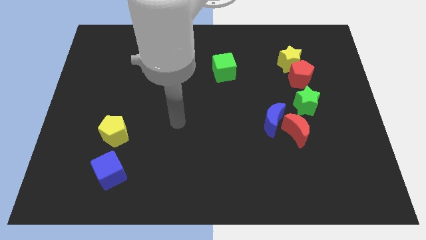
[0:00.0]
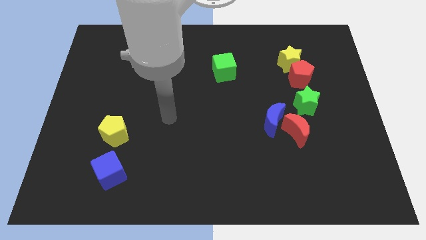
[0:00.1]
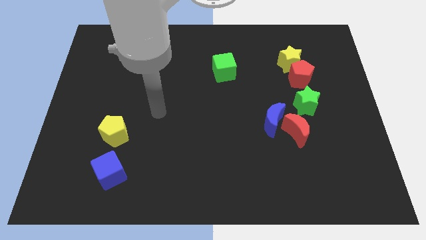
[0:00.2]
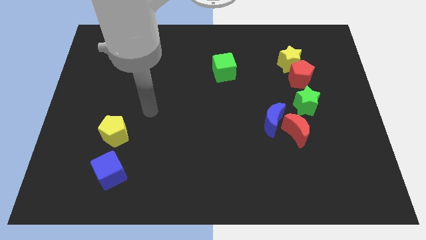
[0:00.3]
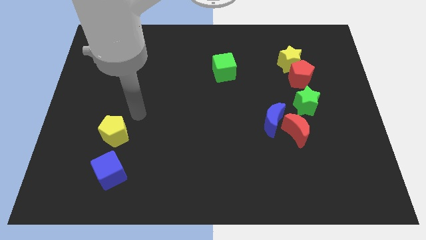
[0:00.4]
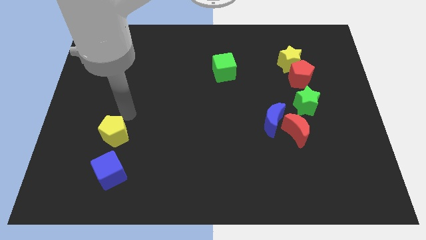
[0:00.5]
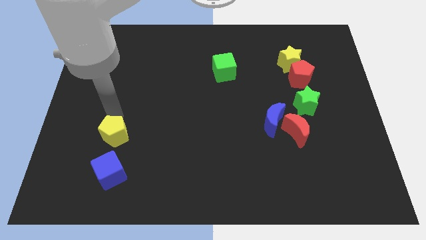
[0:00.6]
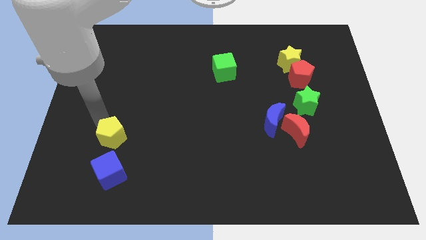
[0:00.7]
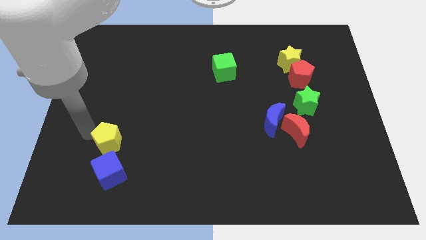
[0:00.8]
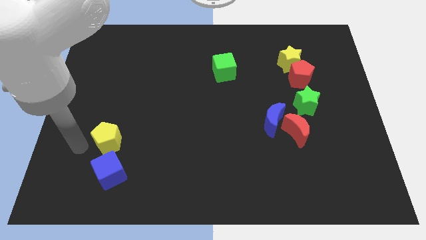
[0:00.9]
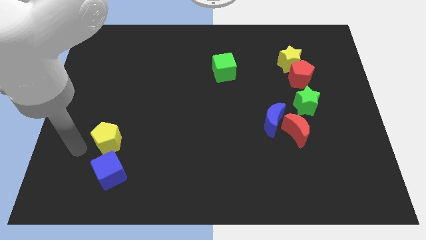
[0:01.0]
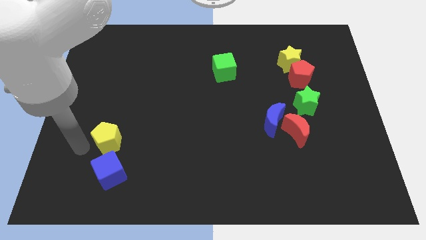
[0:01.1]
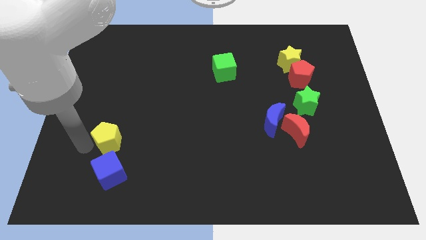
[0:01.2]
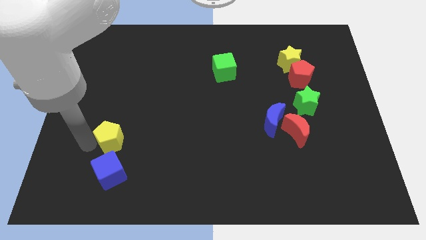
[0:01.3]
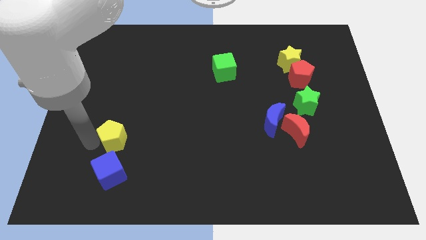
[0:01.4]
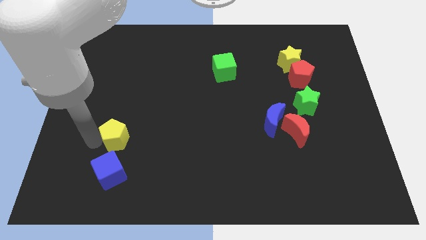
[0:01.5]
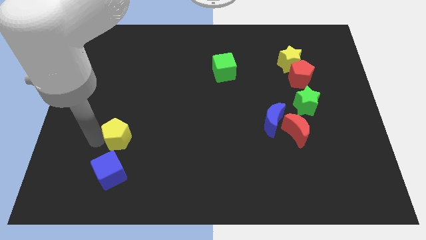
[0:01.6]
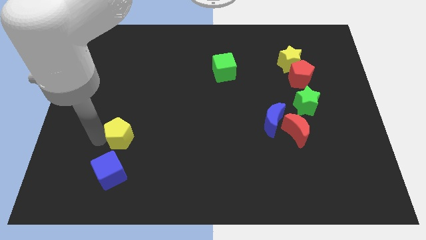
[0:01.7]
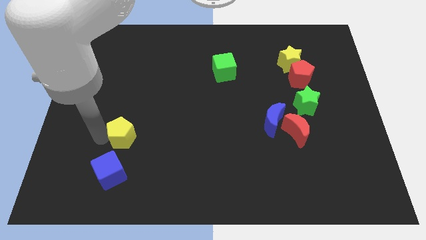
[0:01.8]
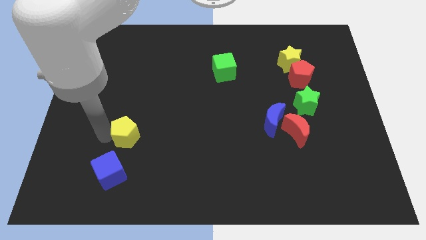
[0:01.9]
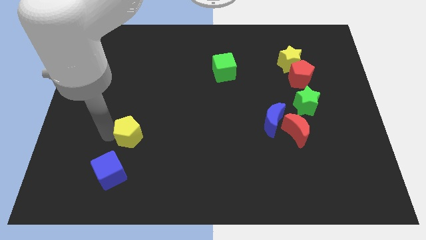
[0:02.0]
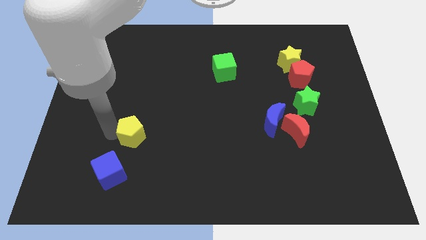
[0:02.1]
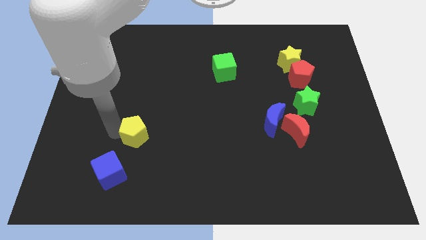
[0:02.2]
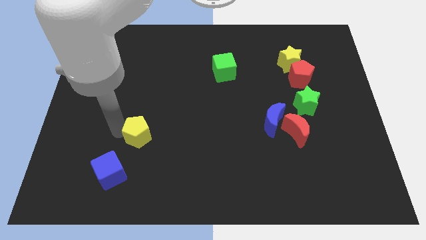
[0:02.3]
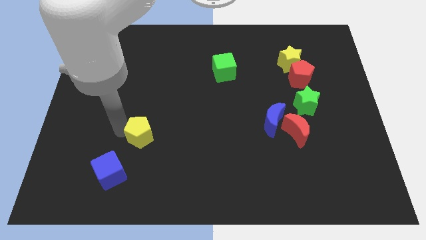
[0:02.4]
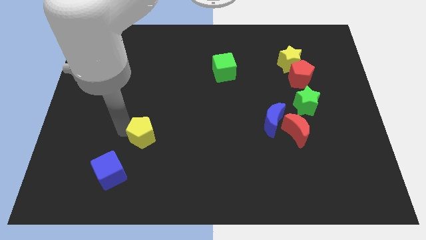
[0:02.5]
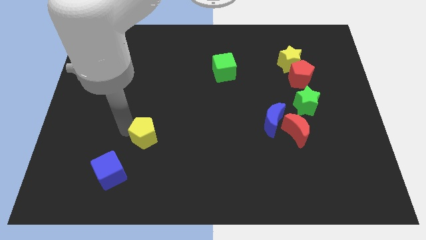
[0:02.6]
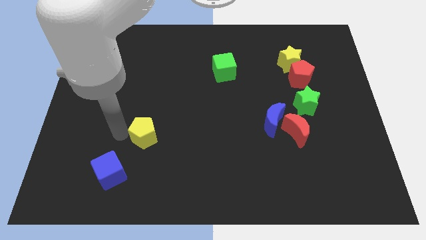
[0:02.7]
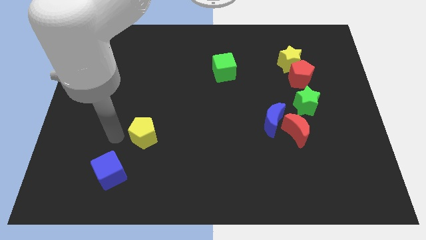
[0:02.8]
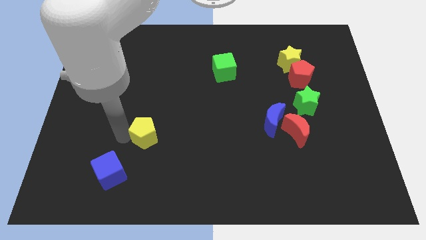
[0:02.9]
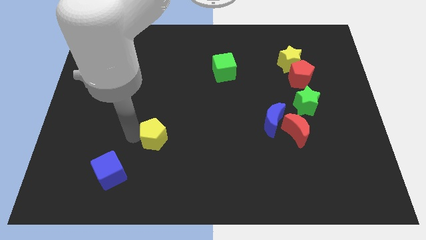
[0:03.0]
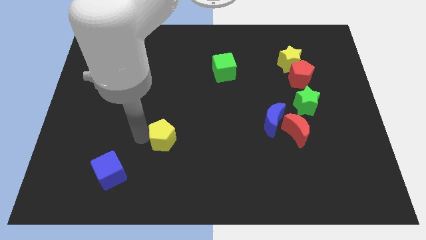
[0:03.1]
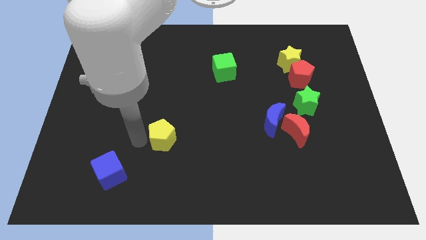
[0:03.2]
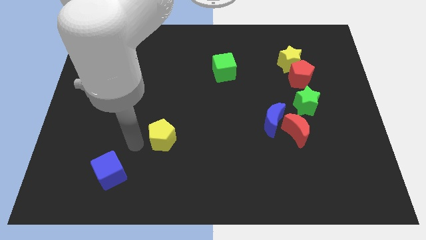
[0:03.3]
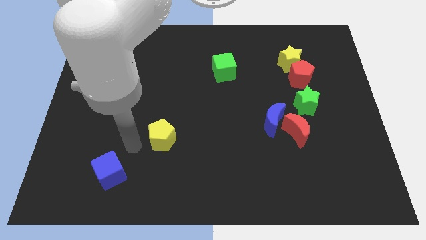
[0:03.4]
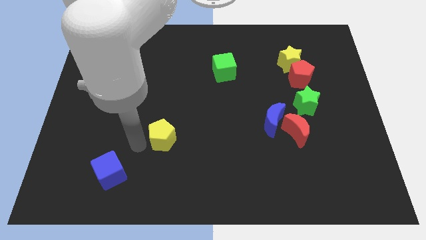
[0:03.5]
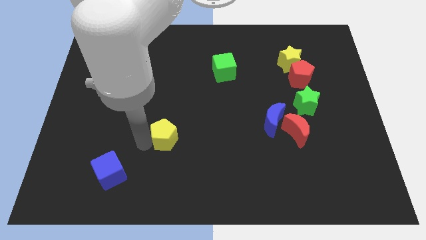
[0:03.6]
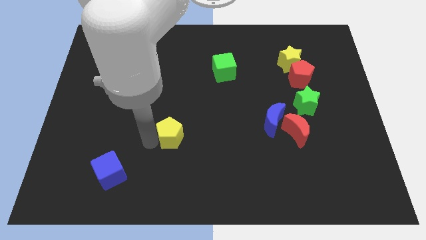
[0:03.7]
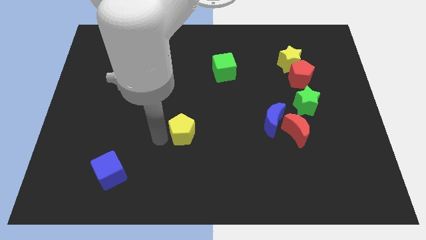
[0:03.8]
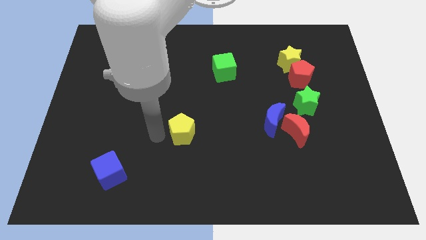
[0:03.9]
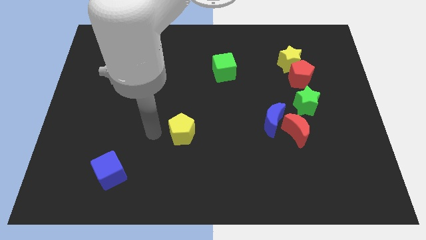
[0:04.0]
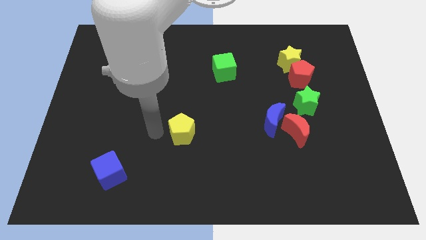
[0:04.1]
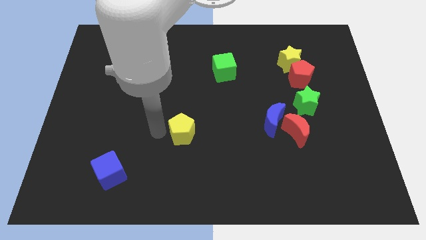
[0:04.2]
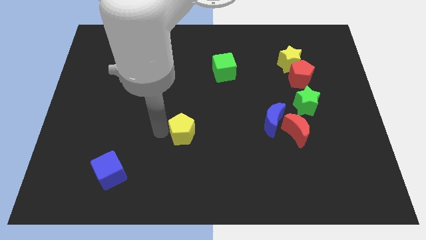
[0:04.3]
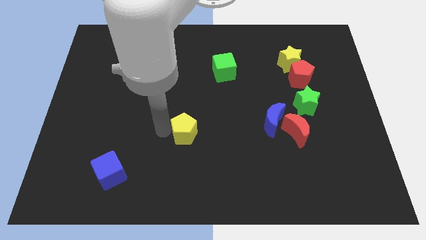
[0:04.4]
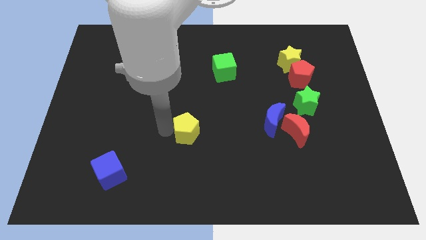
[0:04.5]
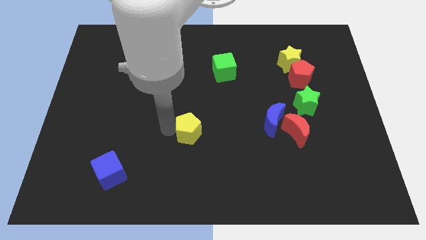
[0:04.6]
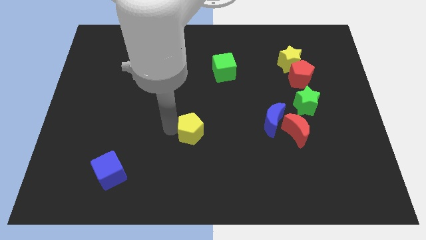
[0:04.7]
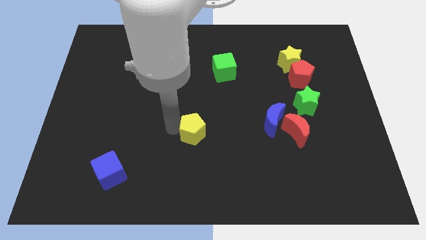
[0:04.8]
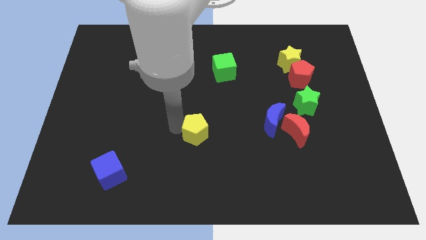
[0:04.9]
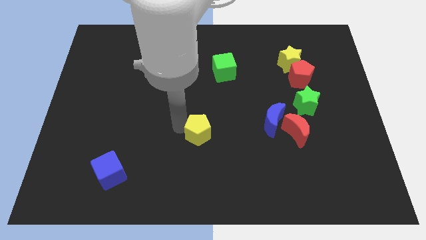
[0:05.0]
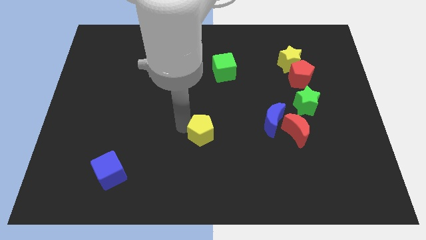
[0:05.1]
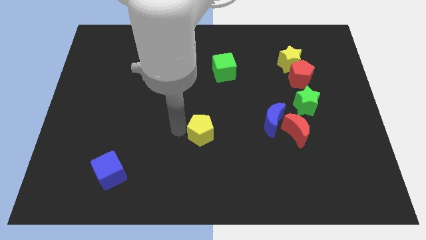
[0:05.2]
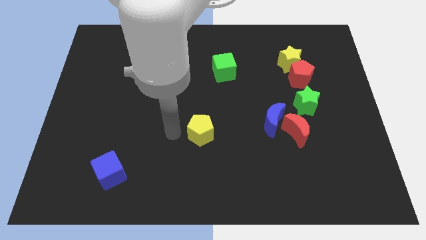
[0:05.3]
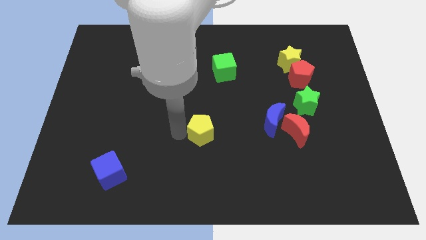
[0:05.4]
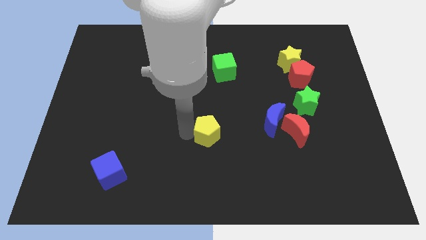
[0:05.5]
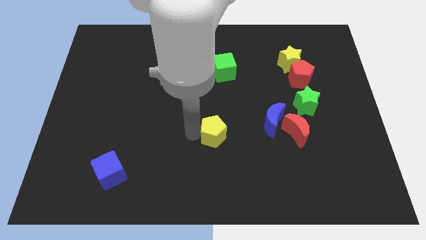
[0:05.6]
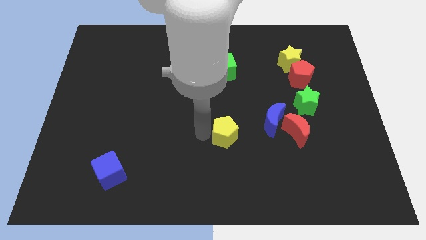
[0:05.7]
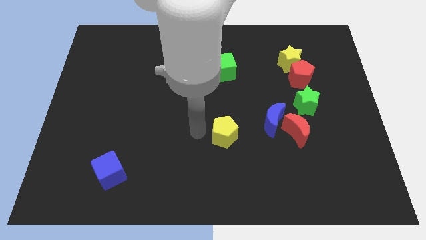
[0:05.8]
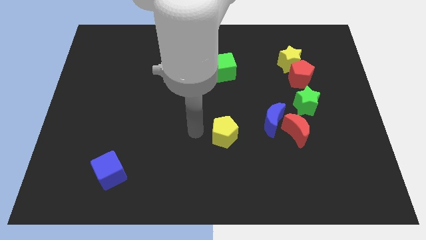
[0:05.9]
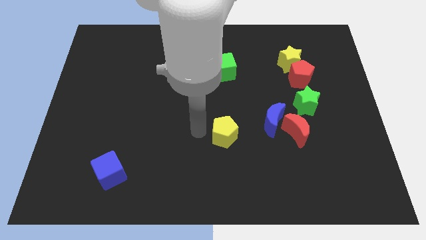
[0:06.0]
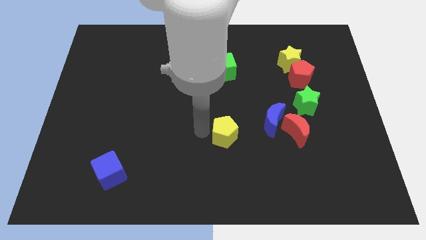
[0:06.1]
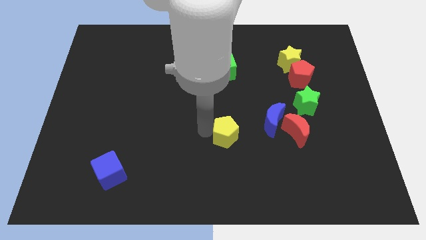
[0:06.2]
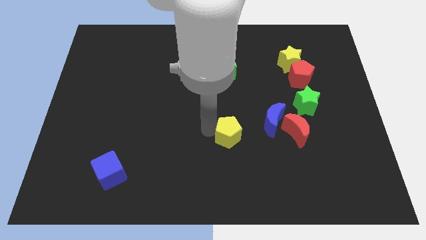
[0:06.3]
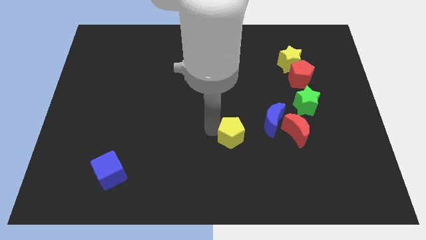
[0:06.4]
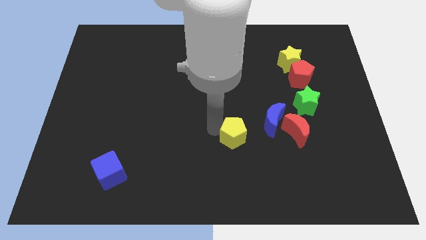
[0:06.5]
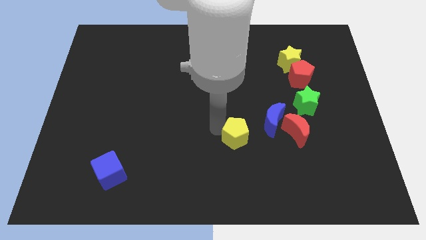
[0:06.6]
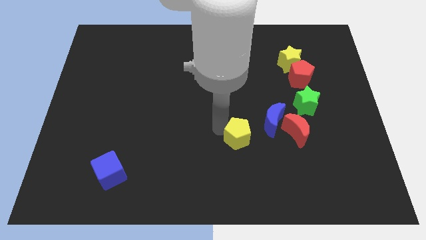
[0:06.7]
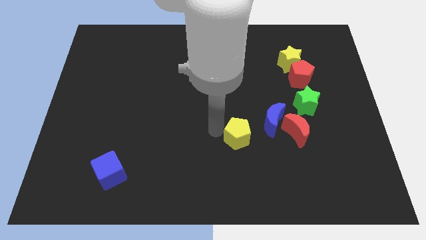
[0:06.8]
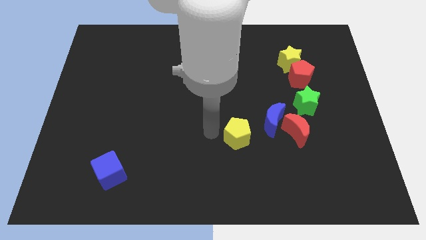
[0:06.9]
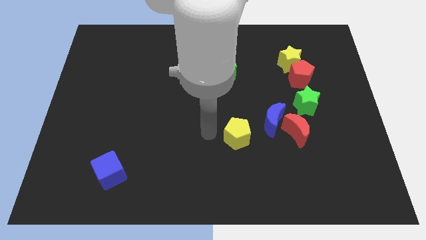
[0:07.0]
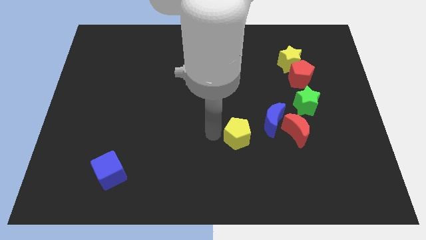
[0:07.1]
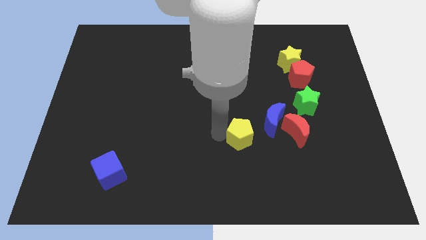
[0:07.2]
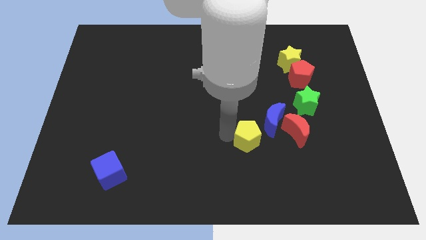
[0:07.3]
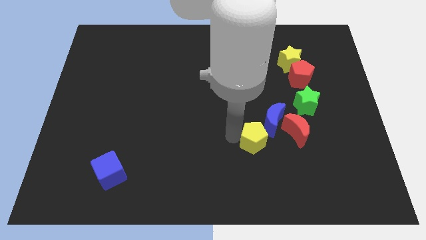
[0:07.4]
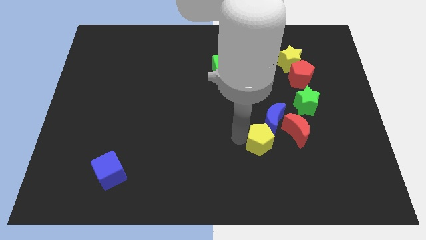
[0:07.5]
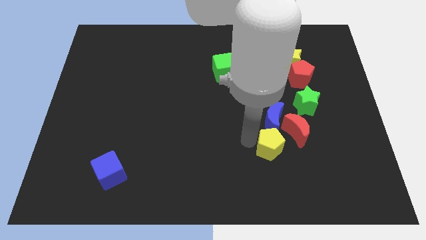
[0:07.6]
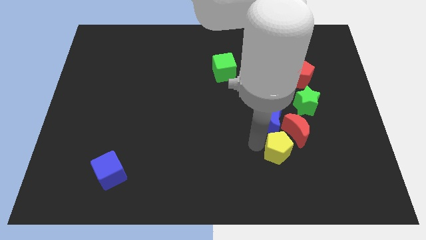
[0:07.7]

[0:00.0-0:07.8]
move the yellow pentagon diagonally down and to the right of the blue moon

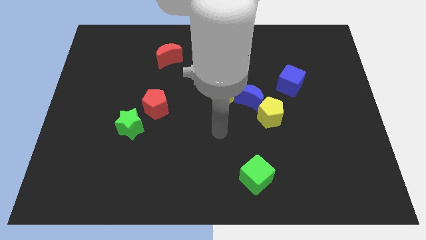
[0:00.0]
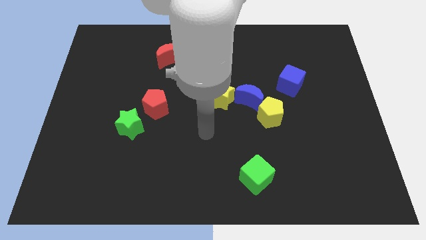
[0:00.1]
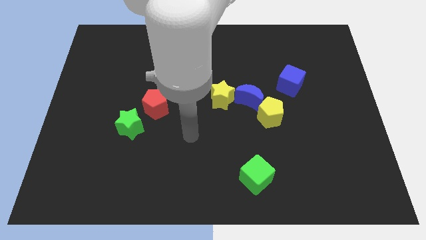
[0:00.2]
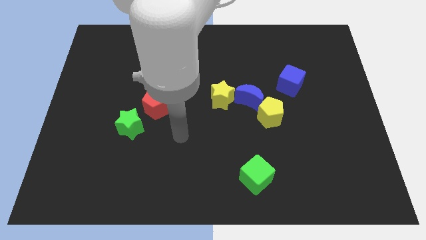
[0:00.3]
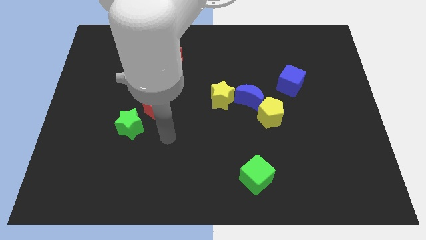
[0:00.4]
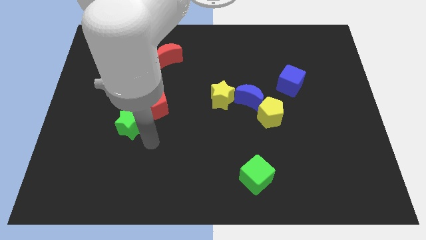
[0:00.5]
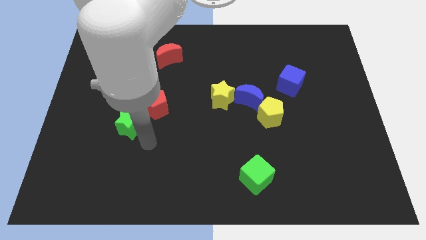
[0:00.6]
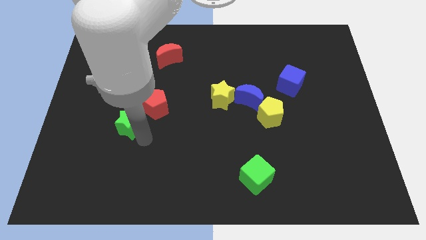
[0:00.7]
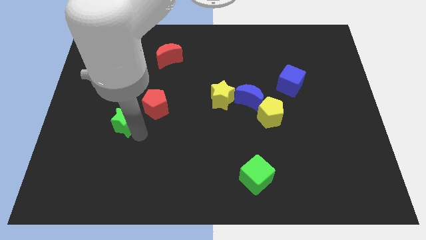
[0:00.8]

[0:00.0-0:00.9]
move the green star to the left of the red pentagon
